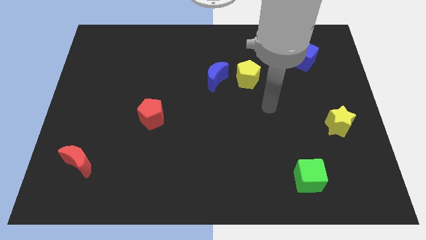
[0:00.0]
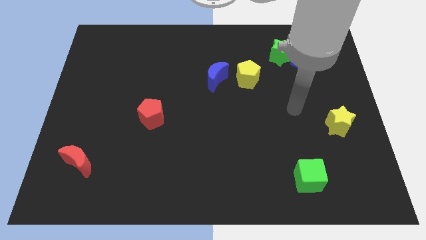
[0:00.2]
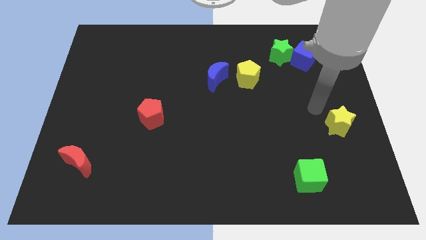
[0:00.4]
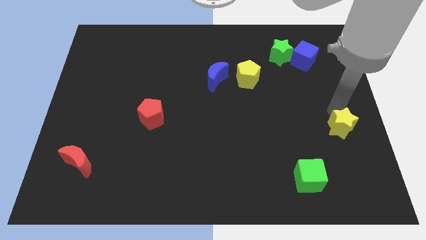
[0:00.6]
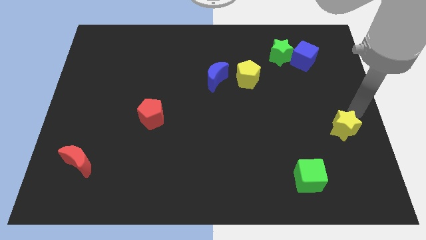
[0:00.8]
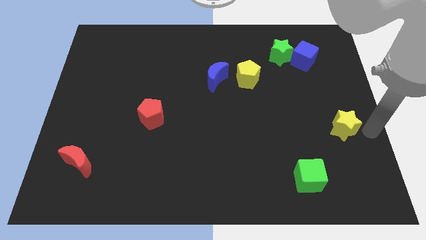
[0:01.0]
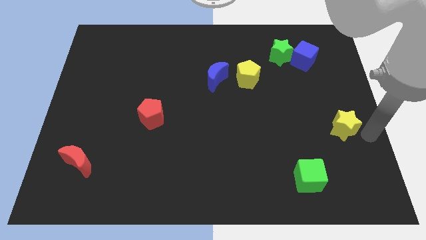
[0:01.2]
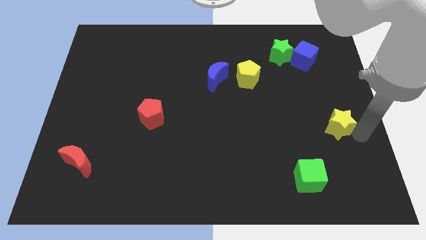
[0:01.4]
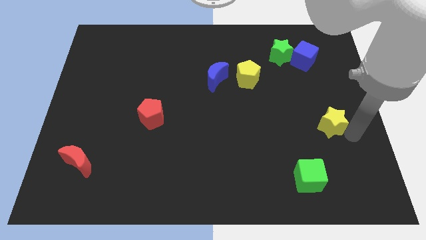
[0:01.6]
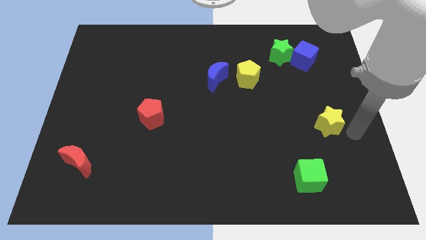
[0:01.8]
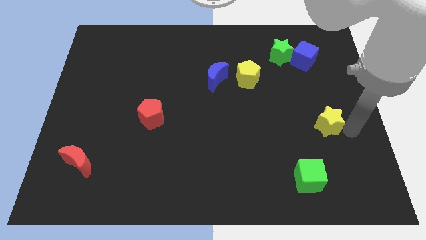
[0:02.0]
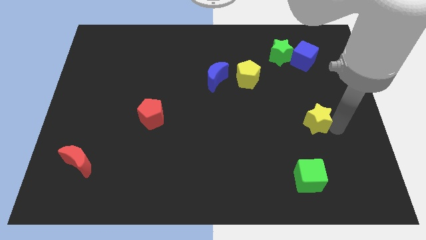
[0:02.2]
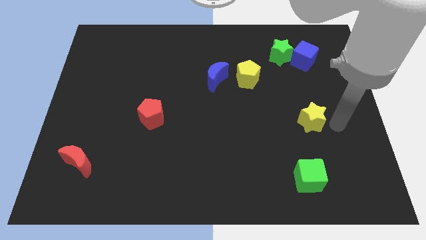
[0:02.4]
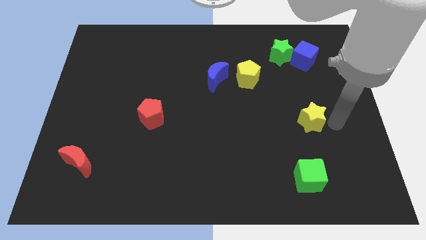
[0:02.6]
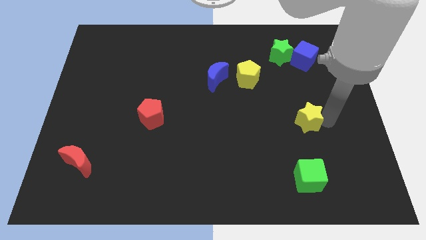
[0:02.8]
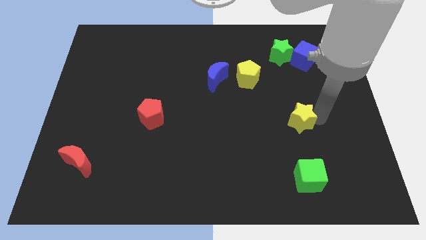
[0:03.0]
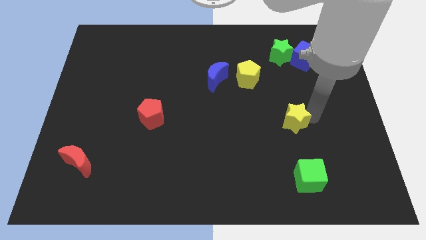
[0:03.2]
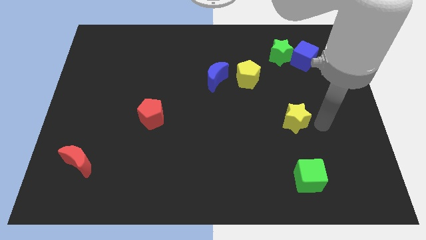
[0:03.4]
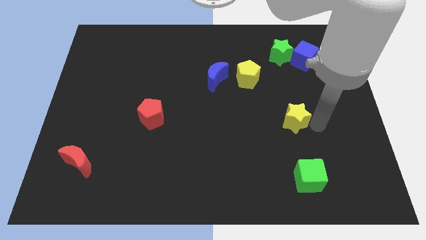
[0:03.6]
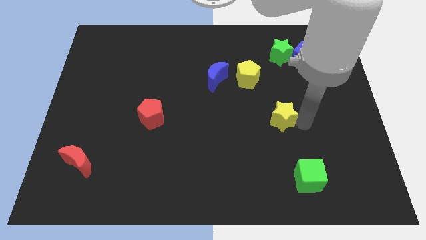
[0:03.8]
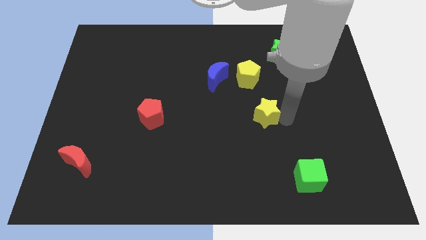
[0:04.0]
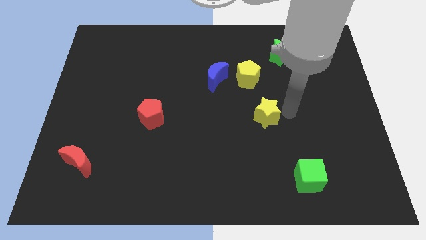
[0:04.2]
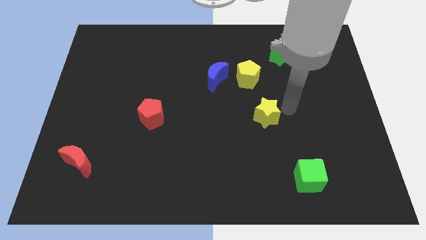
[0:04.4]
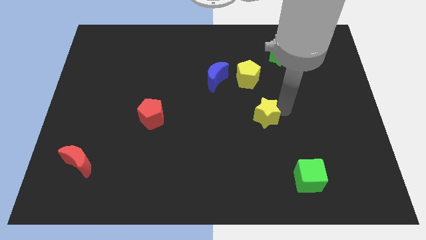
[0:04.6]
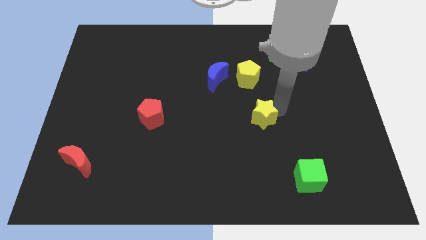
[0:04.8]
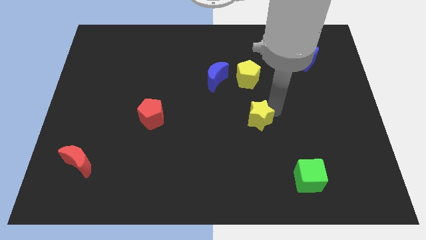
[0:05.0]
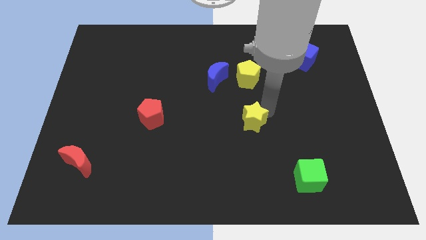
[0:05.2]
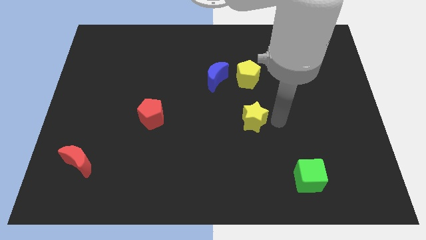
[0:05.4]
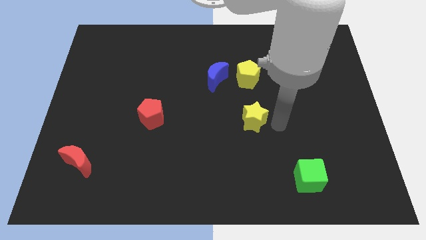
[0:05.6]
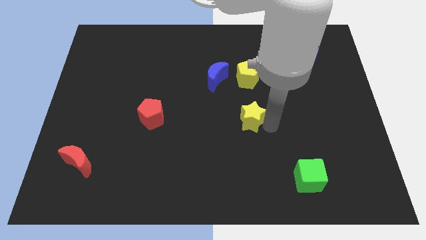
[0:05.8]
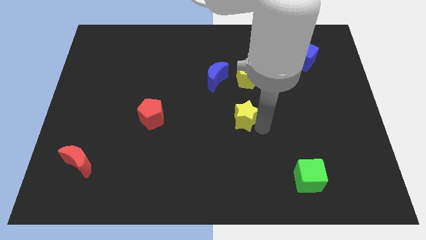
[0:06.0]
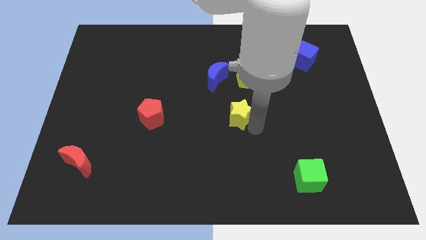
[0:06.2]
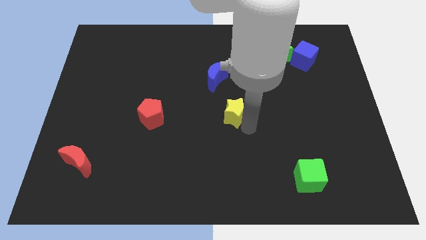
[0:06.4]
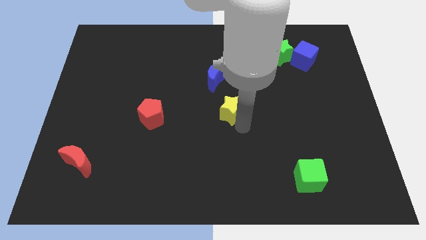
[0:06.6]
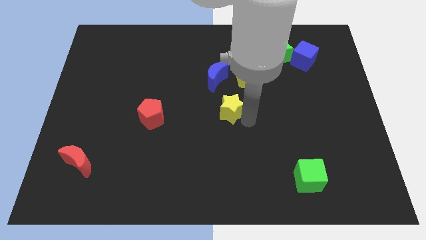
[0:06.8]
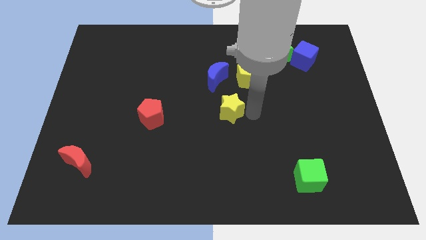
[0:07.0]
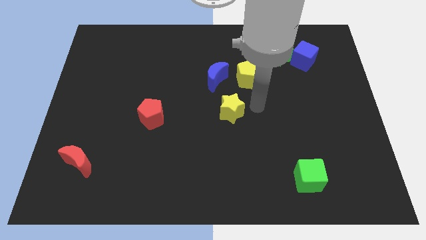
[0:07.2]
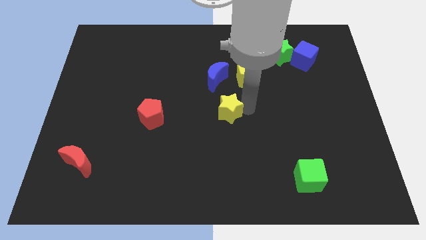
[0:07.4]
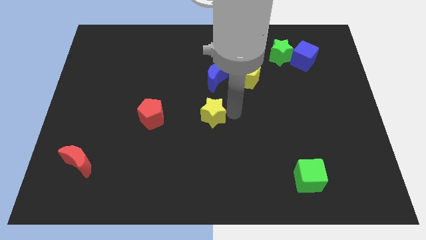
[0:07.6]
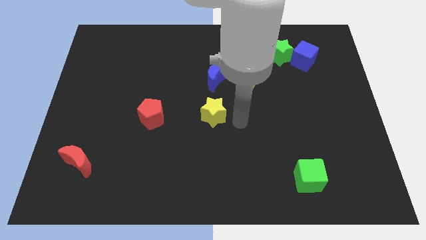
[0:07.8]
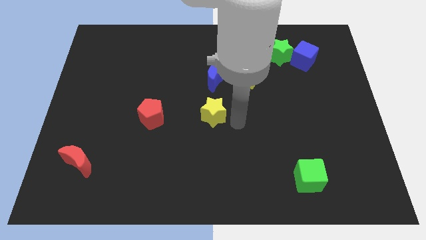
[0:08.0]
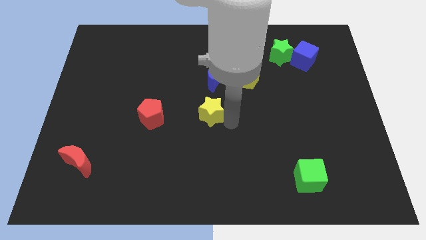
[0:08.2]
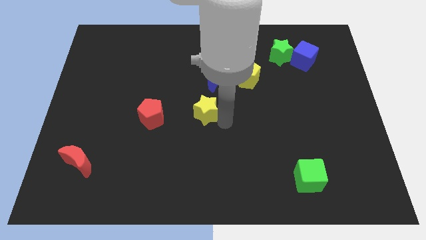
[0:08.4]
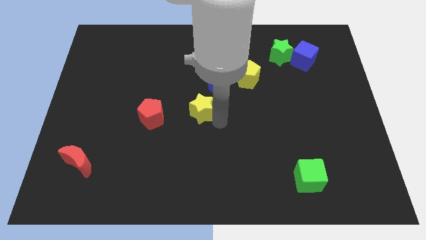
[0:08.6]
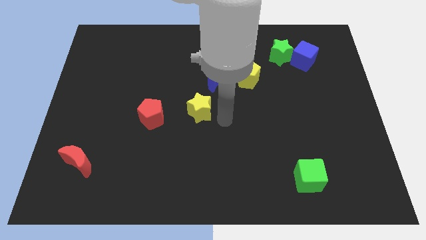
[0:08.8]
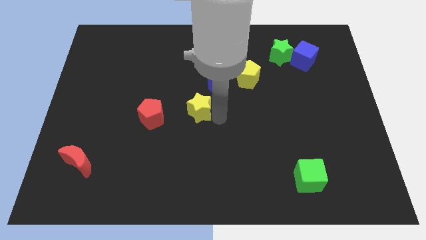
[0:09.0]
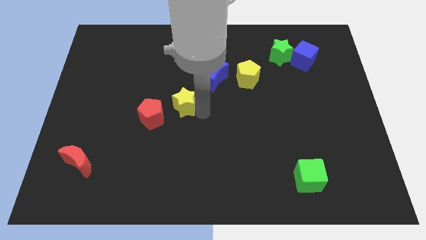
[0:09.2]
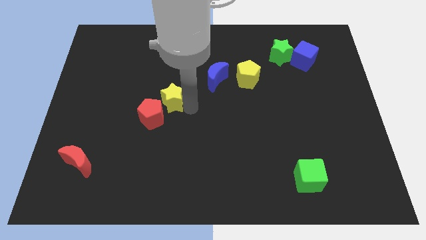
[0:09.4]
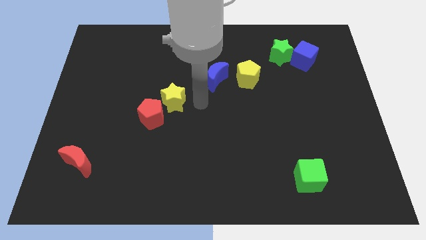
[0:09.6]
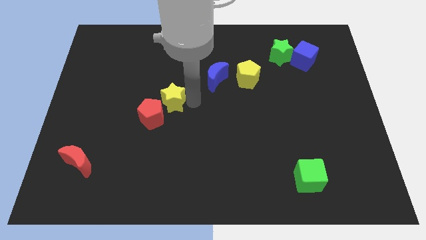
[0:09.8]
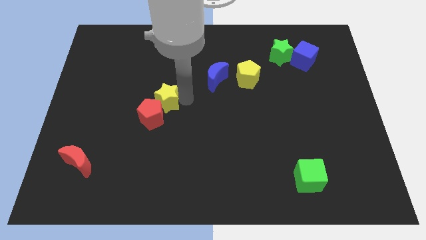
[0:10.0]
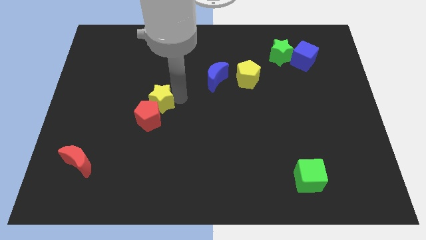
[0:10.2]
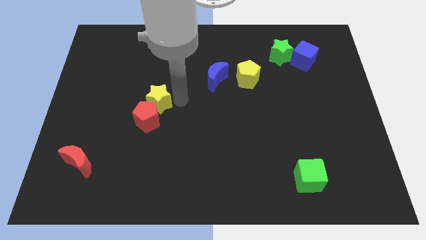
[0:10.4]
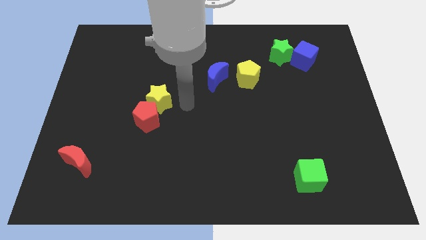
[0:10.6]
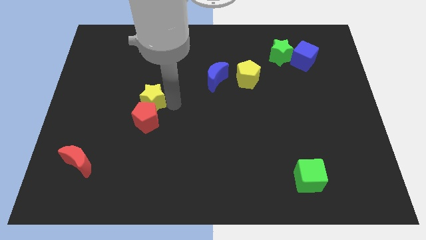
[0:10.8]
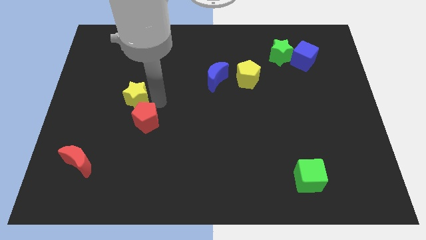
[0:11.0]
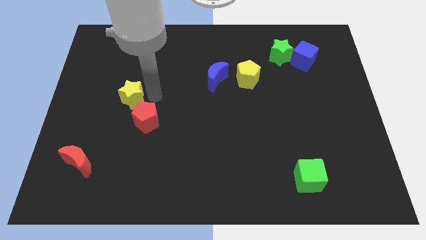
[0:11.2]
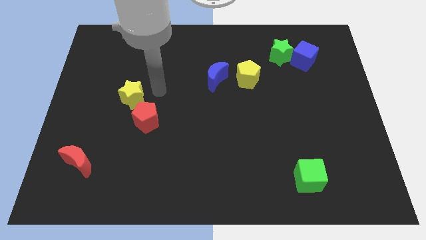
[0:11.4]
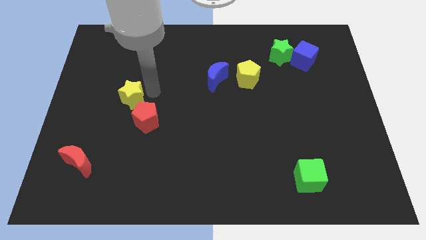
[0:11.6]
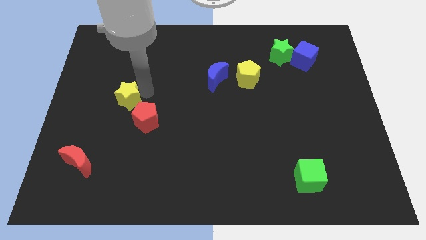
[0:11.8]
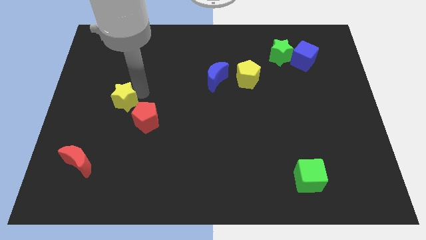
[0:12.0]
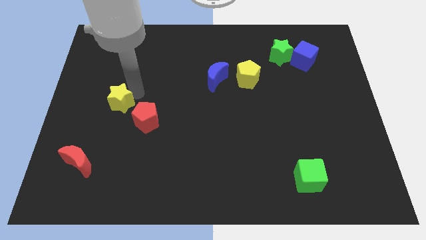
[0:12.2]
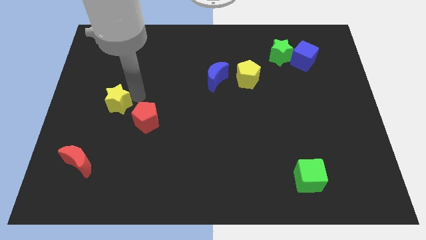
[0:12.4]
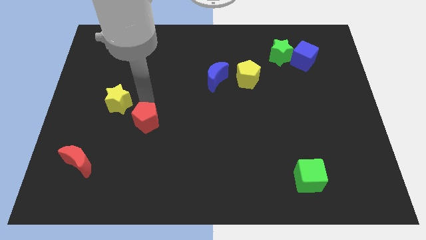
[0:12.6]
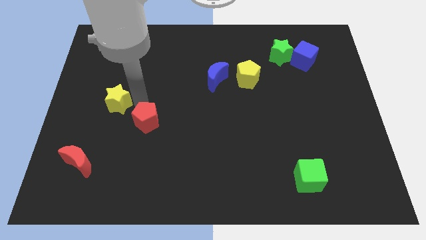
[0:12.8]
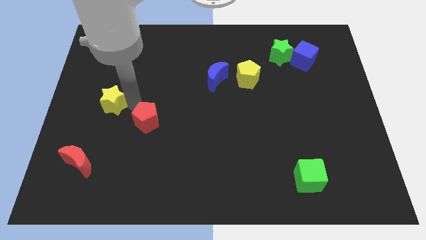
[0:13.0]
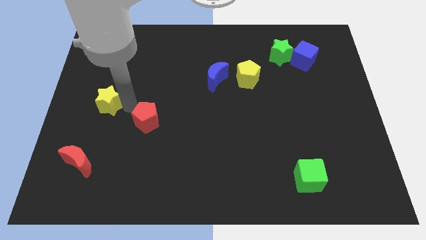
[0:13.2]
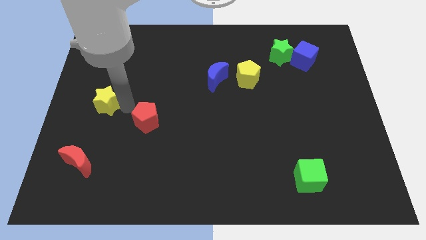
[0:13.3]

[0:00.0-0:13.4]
push the yellow star to the left side
